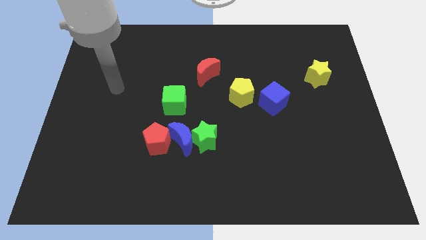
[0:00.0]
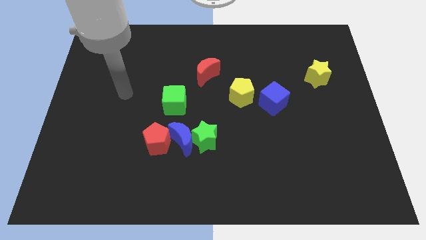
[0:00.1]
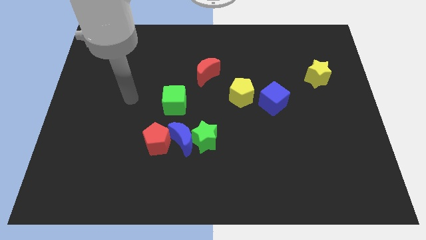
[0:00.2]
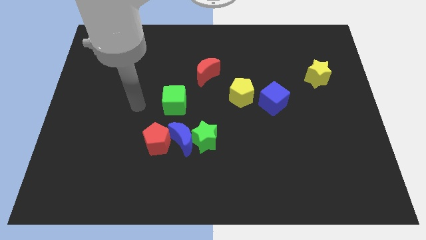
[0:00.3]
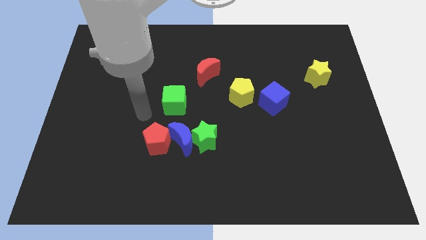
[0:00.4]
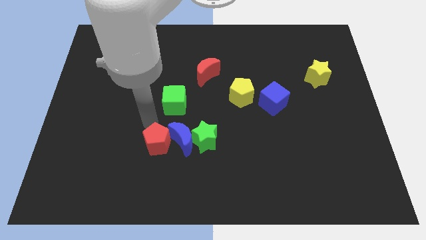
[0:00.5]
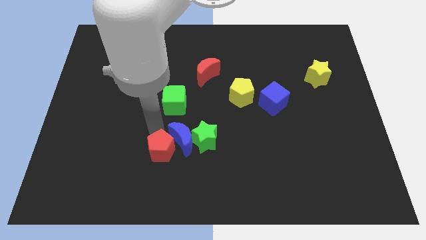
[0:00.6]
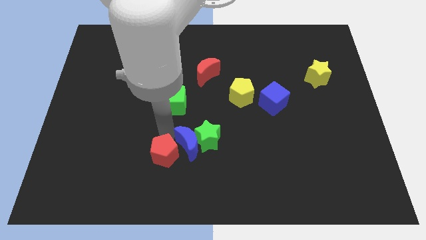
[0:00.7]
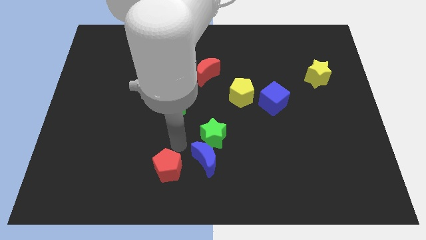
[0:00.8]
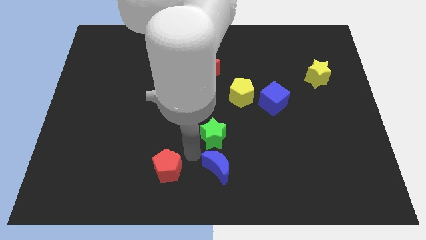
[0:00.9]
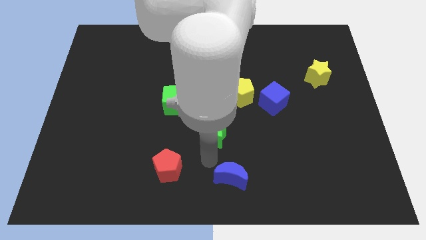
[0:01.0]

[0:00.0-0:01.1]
move the green star away from the blue moon

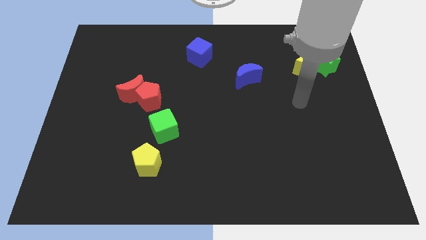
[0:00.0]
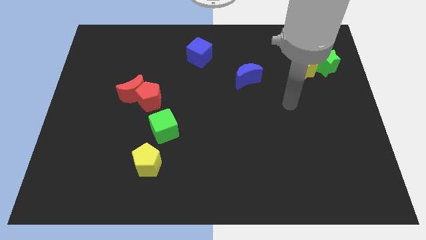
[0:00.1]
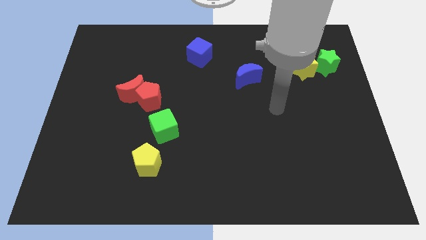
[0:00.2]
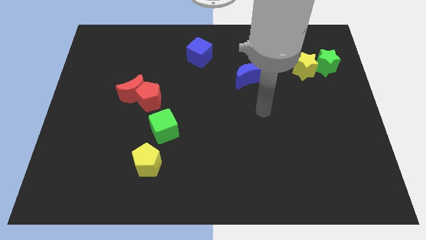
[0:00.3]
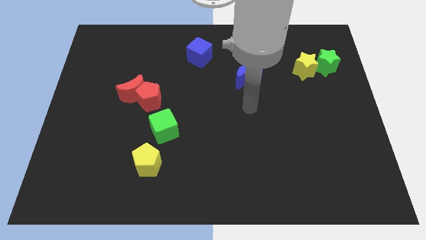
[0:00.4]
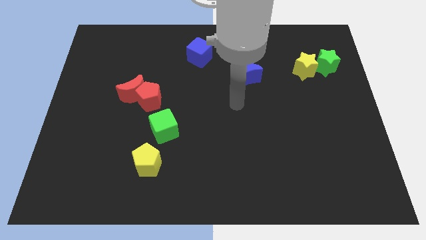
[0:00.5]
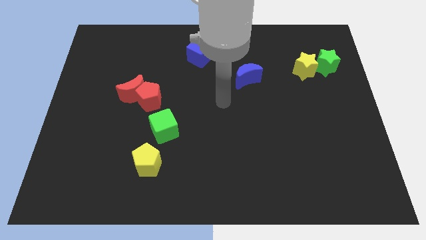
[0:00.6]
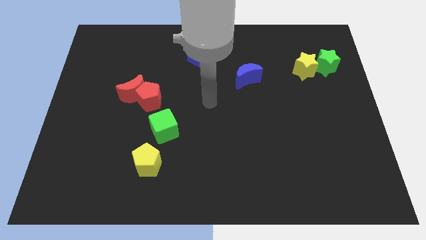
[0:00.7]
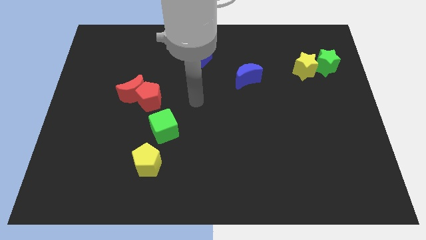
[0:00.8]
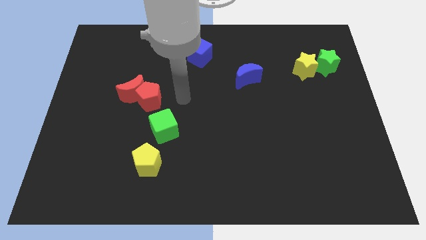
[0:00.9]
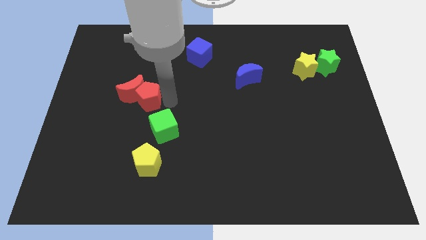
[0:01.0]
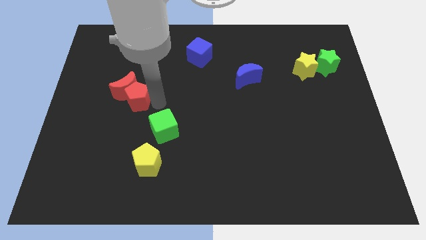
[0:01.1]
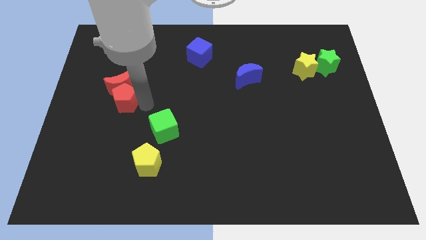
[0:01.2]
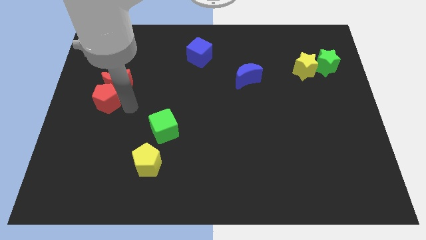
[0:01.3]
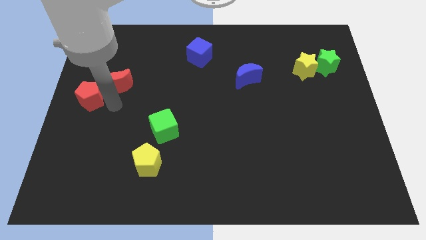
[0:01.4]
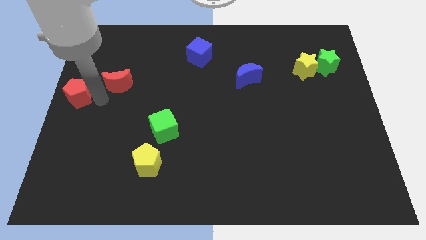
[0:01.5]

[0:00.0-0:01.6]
move the red moon away from the red pentagon

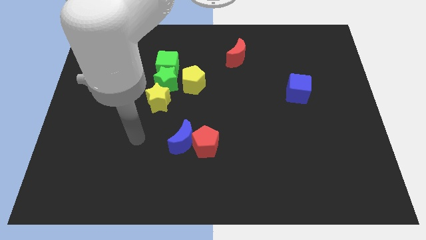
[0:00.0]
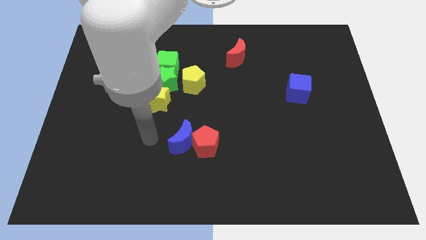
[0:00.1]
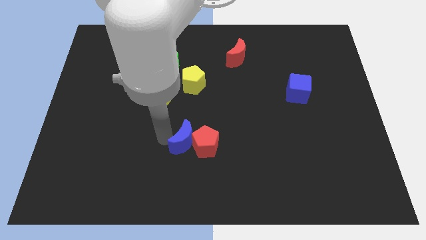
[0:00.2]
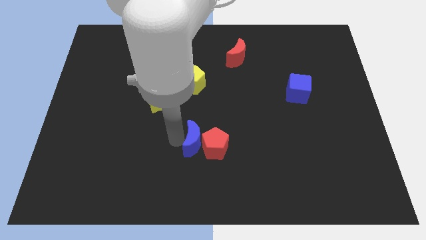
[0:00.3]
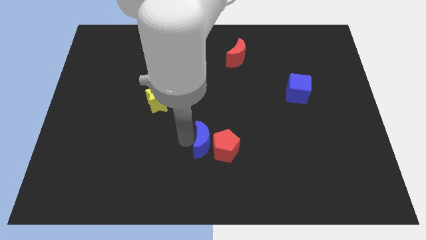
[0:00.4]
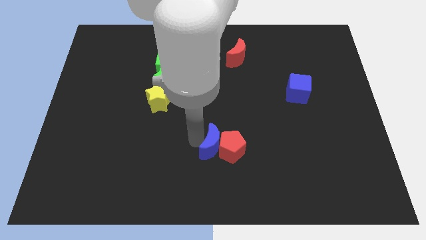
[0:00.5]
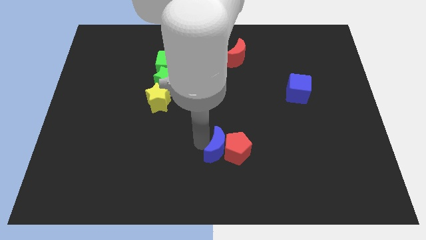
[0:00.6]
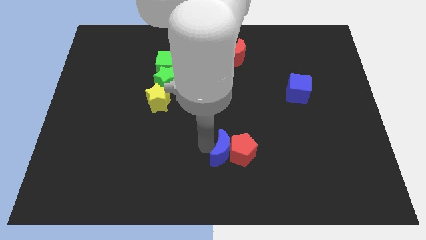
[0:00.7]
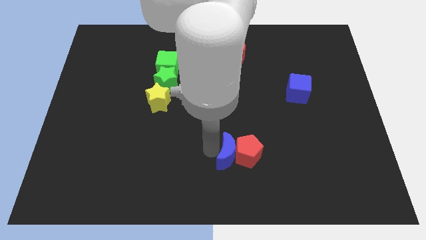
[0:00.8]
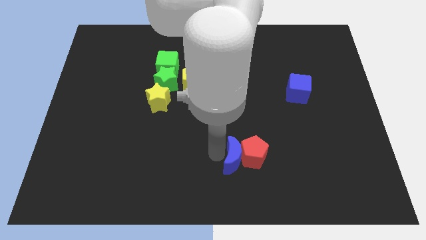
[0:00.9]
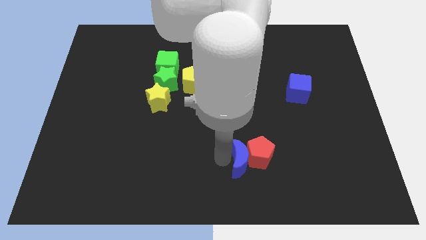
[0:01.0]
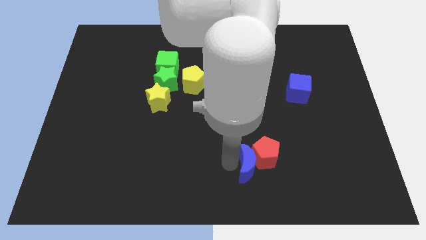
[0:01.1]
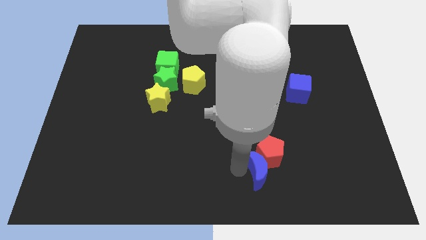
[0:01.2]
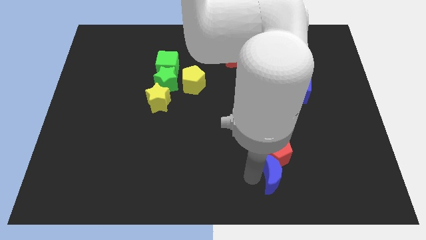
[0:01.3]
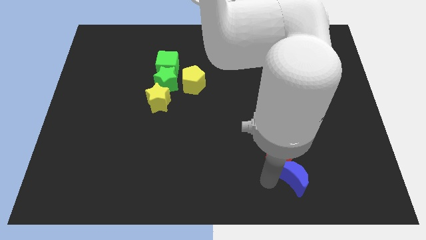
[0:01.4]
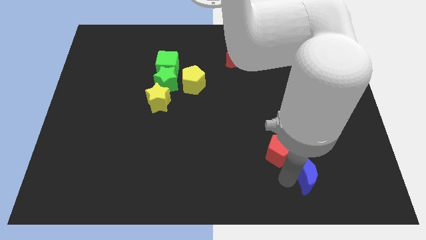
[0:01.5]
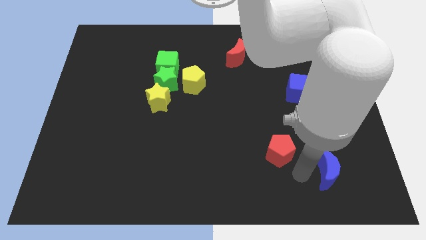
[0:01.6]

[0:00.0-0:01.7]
separate the red pentagon from the blue moon

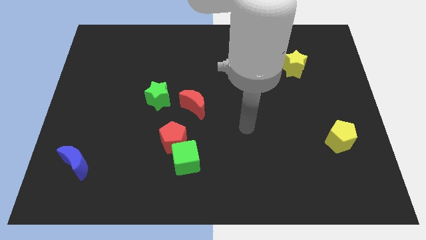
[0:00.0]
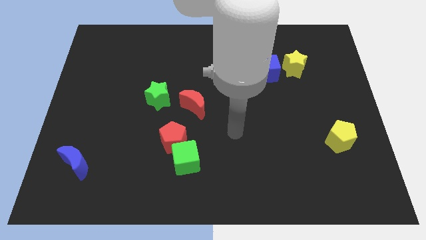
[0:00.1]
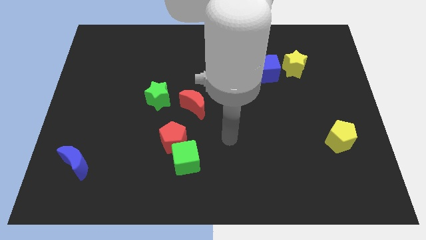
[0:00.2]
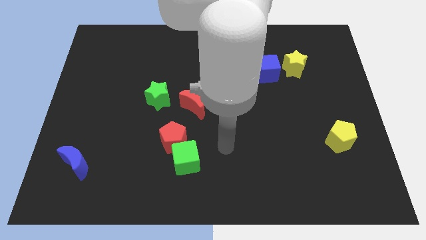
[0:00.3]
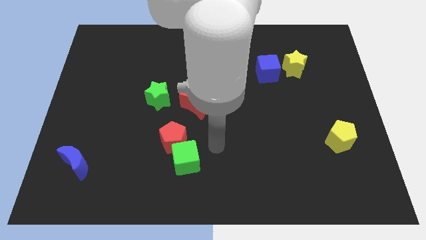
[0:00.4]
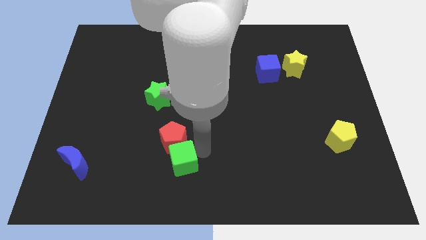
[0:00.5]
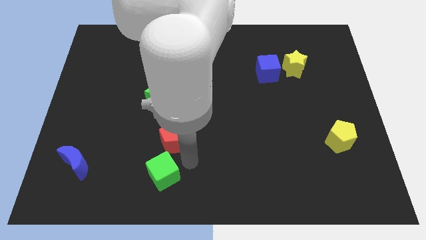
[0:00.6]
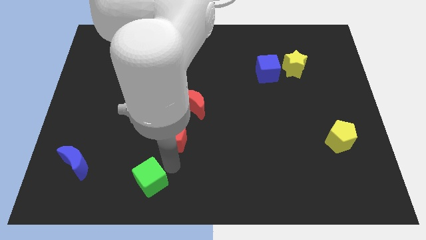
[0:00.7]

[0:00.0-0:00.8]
move the red pentagon away from the green cube

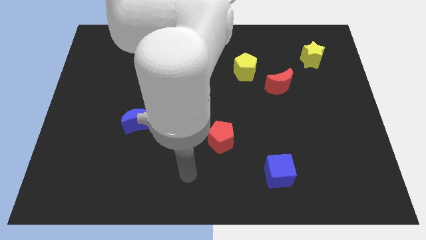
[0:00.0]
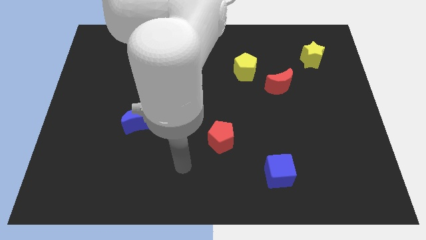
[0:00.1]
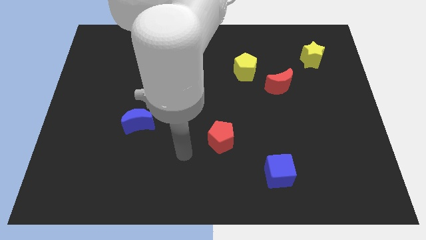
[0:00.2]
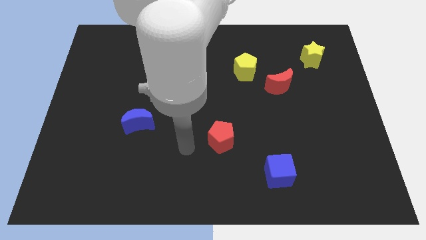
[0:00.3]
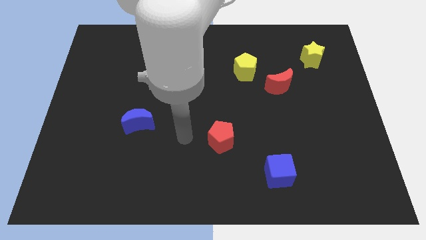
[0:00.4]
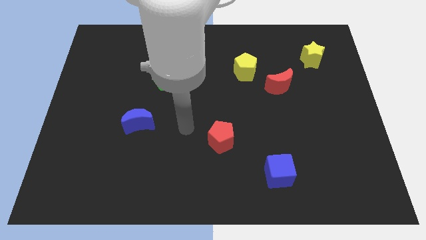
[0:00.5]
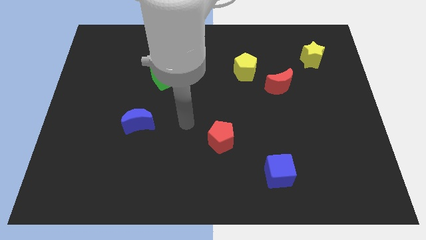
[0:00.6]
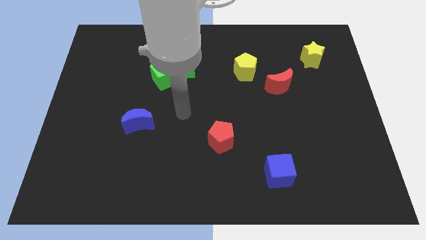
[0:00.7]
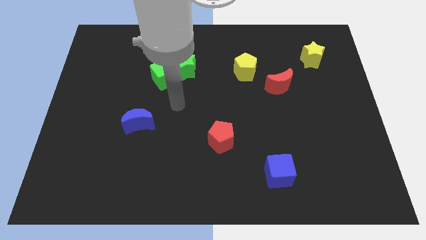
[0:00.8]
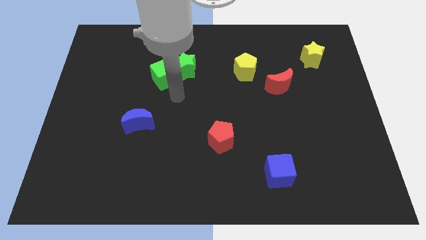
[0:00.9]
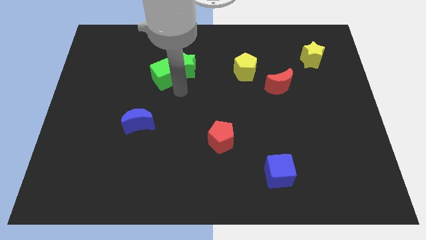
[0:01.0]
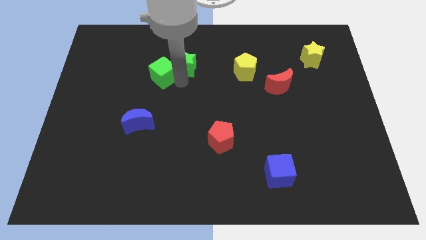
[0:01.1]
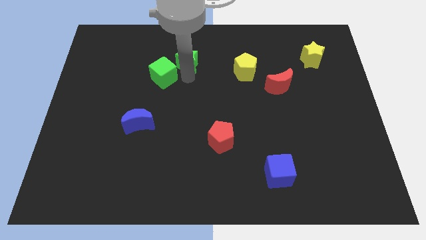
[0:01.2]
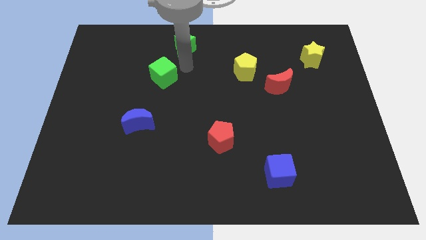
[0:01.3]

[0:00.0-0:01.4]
move the green cube away from the green star

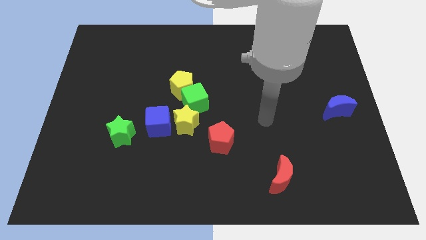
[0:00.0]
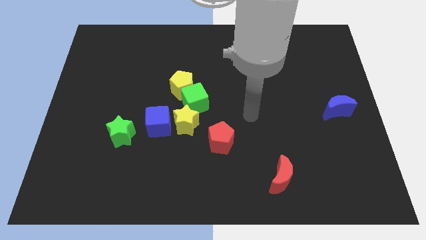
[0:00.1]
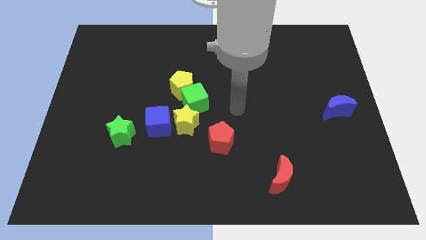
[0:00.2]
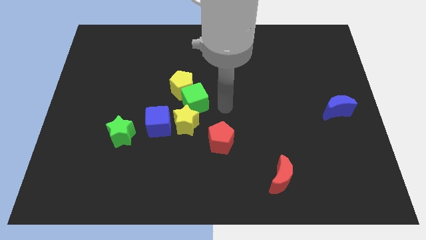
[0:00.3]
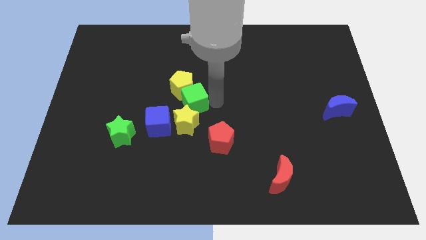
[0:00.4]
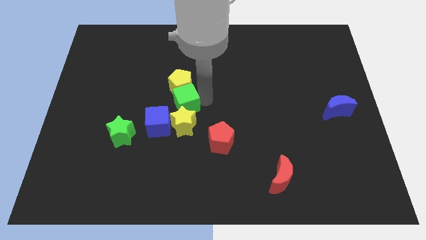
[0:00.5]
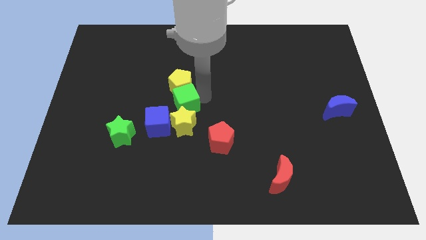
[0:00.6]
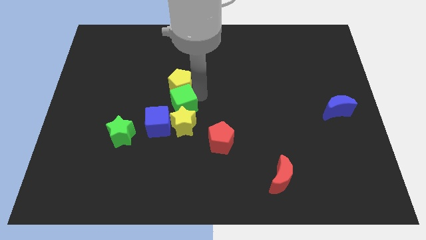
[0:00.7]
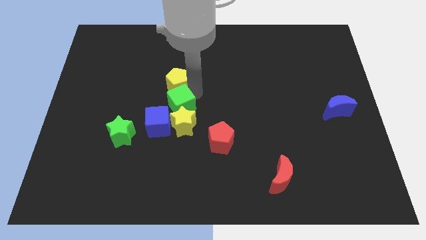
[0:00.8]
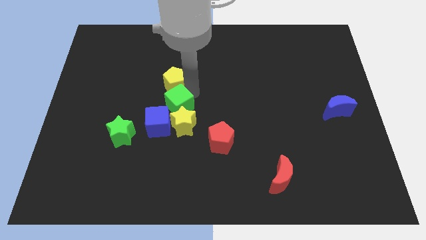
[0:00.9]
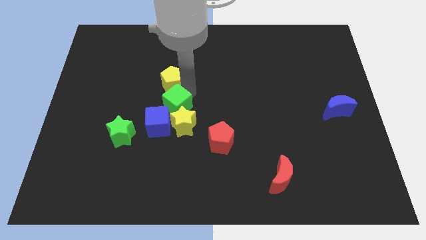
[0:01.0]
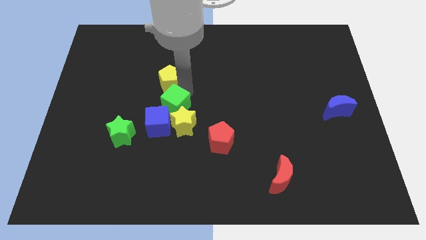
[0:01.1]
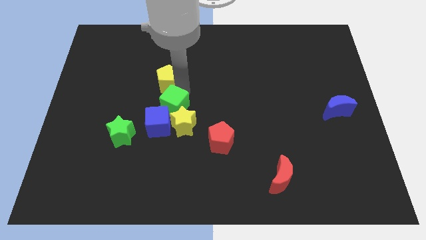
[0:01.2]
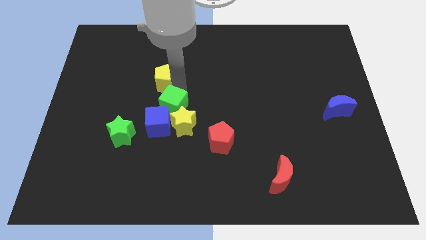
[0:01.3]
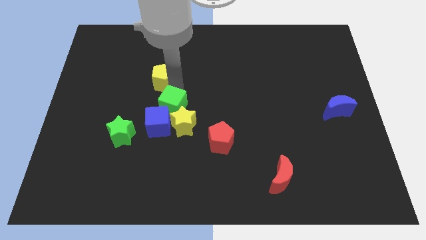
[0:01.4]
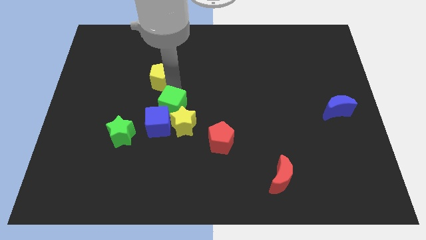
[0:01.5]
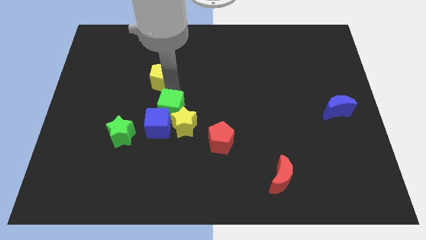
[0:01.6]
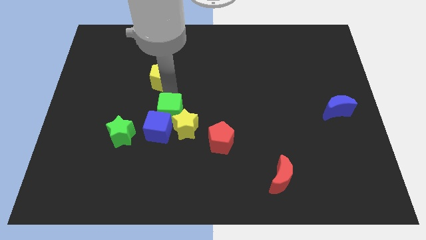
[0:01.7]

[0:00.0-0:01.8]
separate the yellow pentagon from the green cube

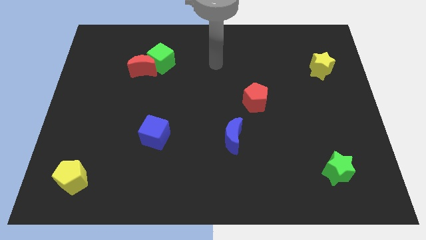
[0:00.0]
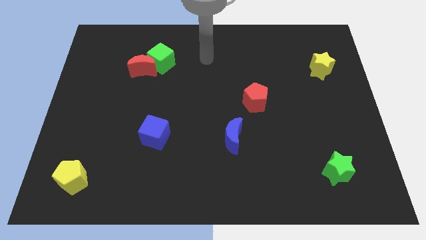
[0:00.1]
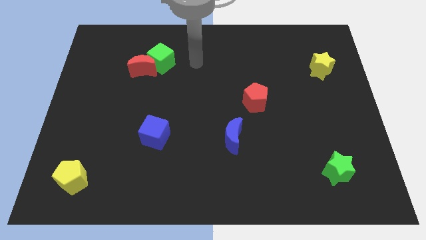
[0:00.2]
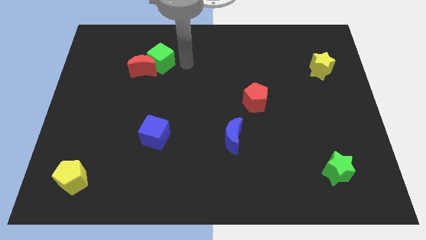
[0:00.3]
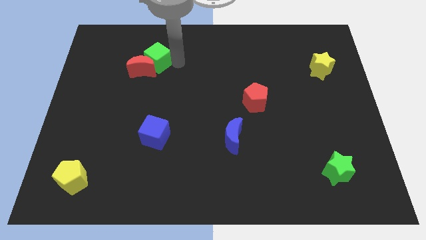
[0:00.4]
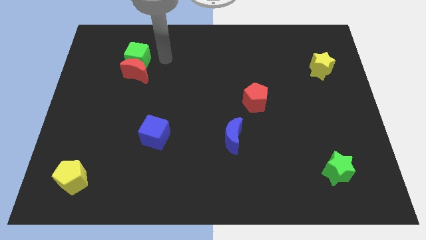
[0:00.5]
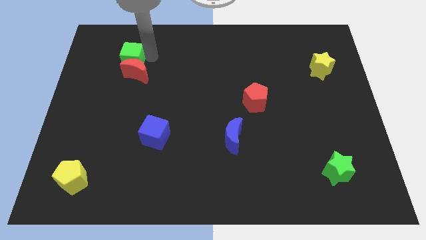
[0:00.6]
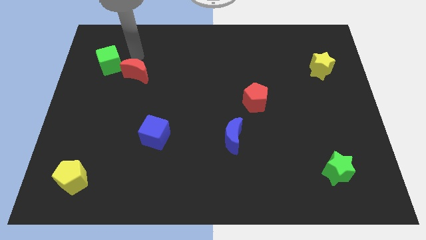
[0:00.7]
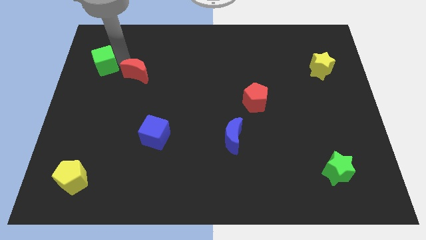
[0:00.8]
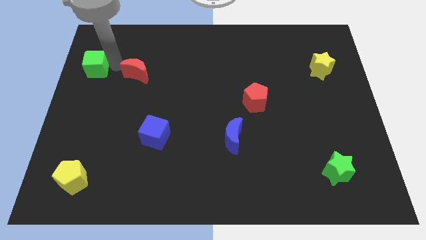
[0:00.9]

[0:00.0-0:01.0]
separate the red moon from the green cube
